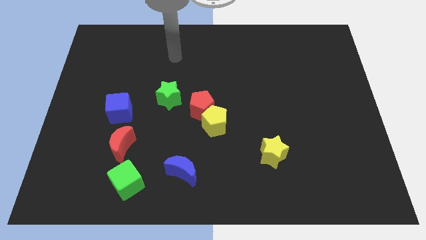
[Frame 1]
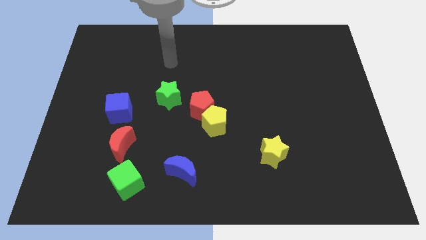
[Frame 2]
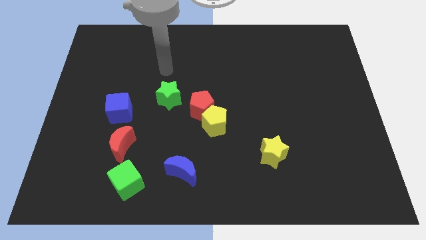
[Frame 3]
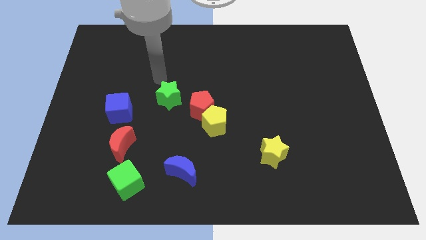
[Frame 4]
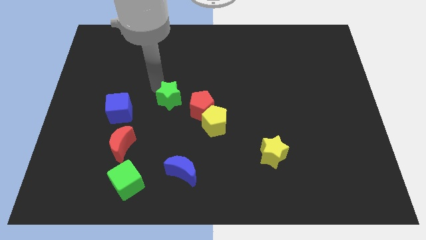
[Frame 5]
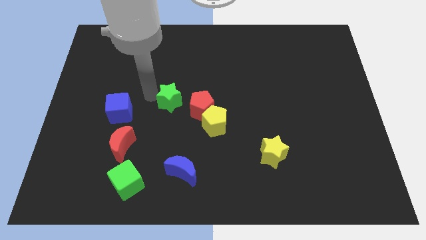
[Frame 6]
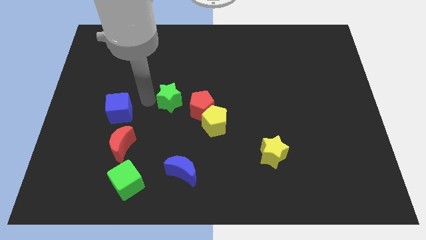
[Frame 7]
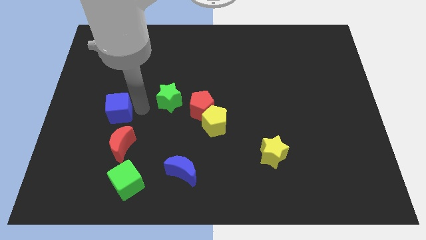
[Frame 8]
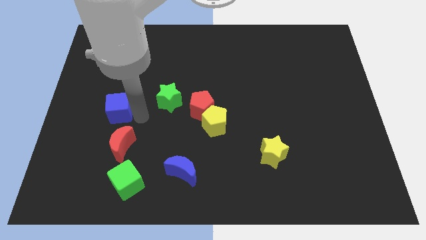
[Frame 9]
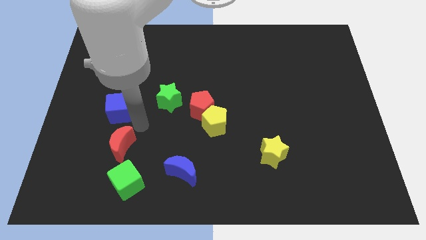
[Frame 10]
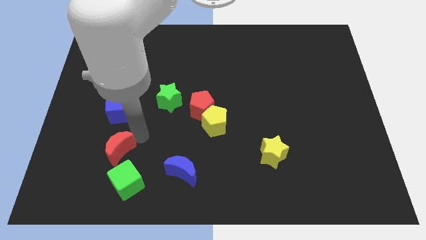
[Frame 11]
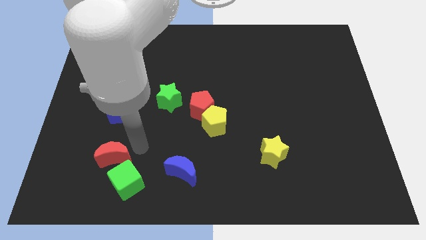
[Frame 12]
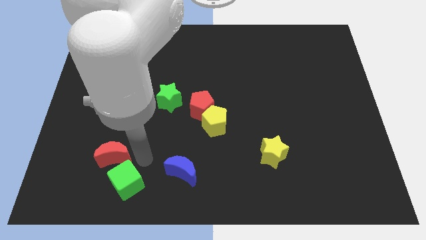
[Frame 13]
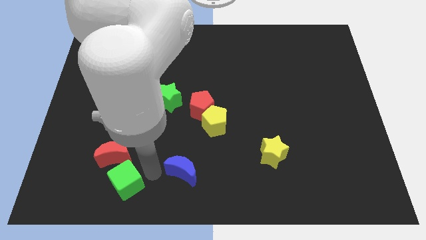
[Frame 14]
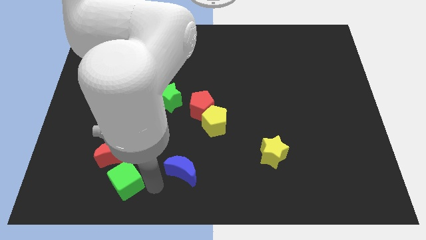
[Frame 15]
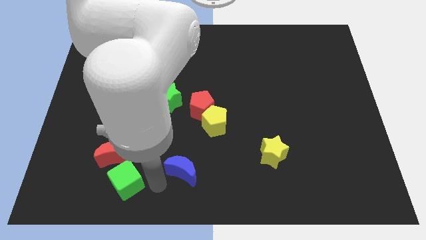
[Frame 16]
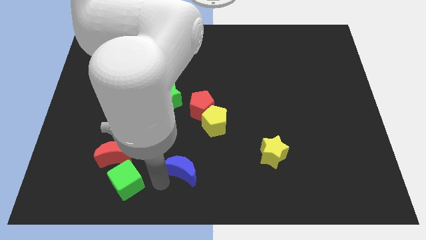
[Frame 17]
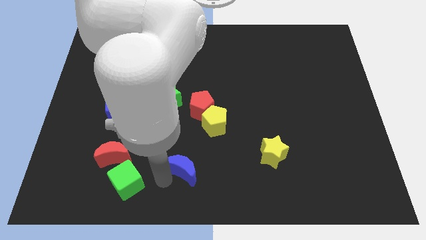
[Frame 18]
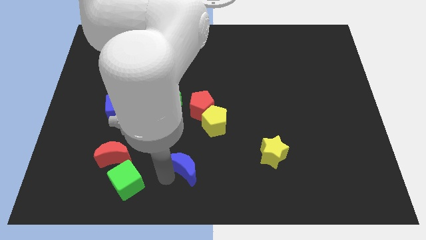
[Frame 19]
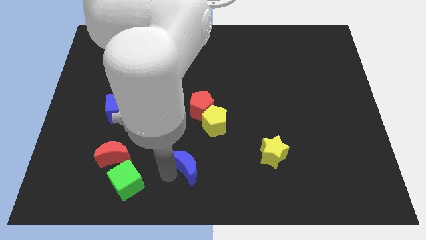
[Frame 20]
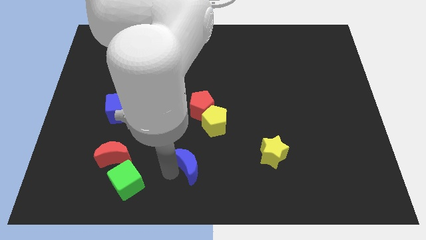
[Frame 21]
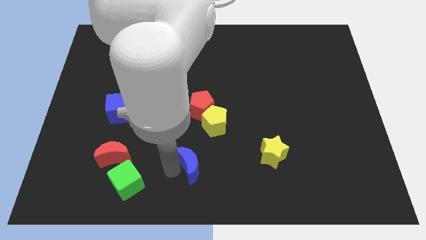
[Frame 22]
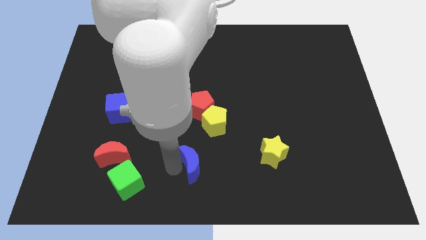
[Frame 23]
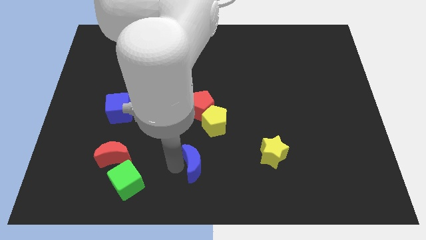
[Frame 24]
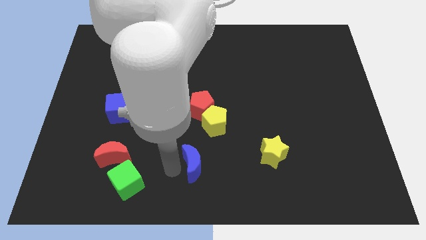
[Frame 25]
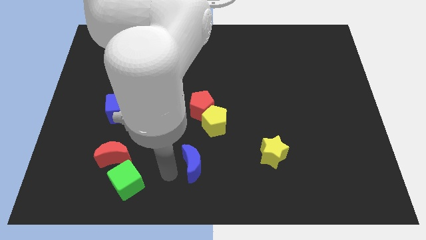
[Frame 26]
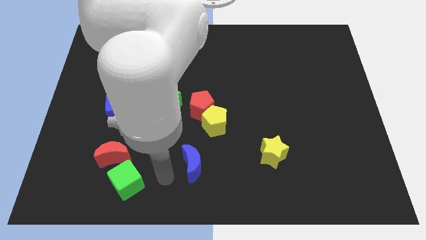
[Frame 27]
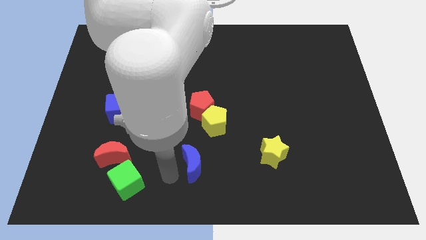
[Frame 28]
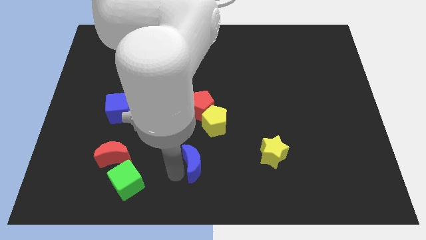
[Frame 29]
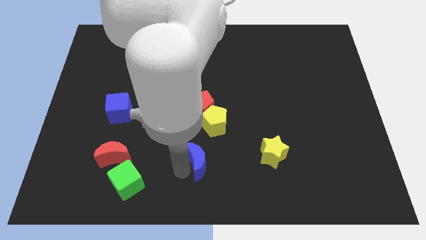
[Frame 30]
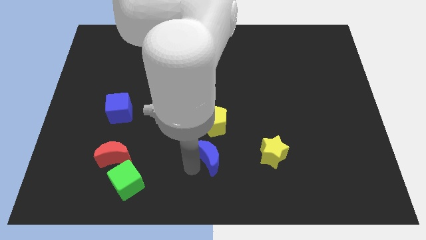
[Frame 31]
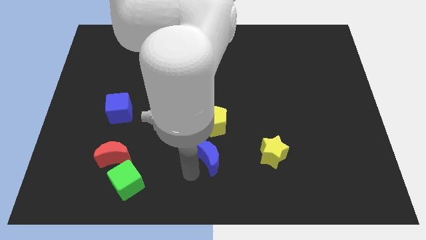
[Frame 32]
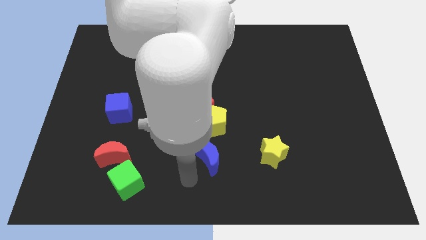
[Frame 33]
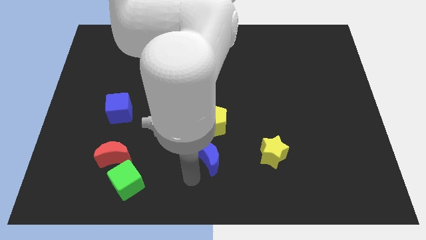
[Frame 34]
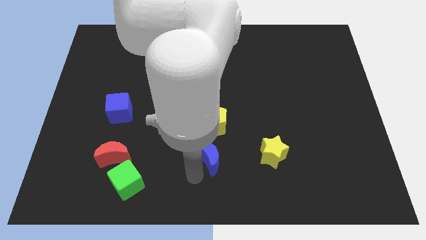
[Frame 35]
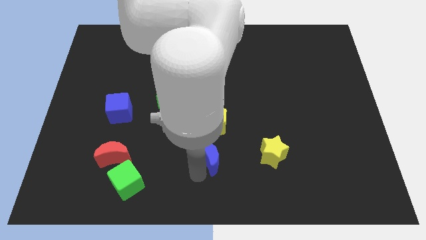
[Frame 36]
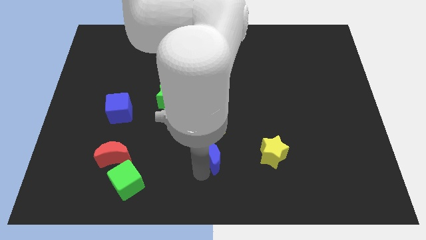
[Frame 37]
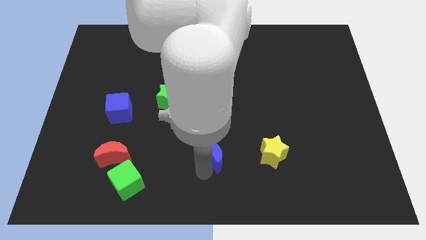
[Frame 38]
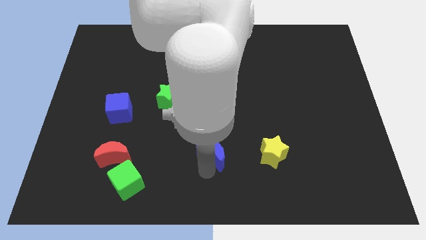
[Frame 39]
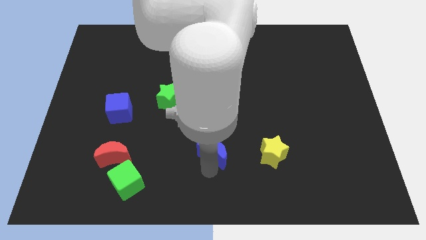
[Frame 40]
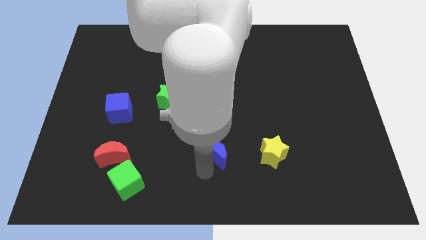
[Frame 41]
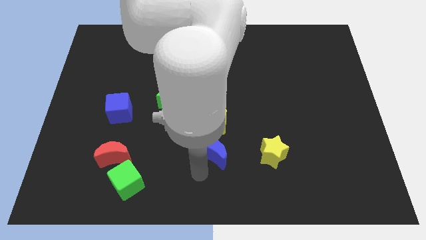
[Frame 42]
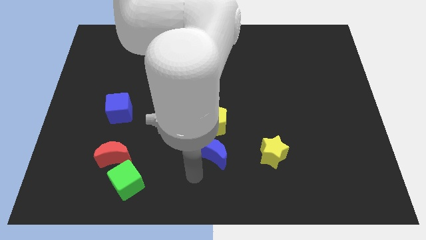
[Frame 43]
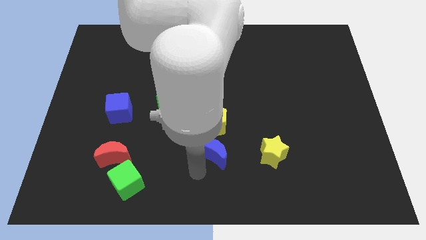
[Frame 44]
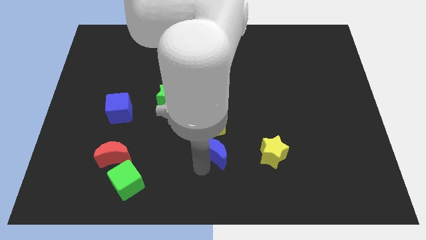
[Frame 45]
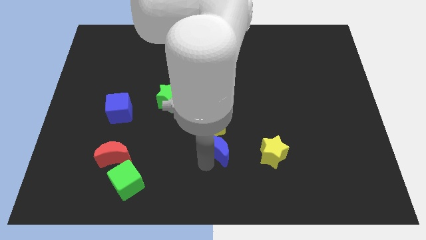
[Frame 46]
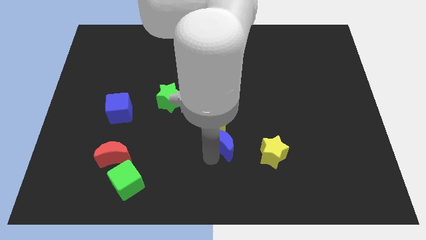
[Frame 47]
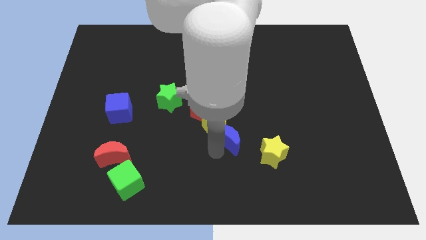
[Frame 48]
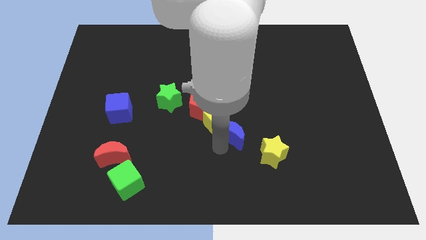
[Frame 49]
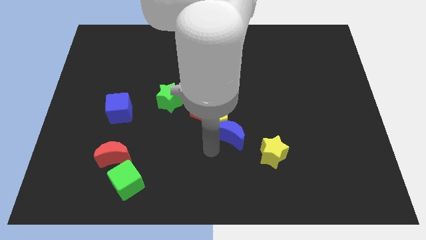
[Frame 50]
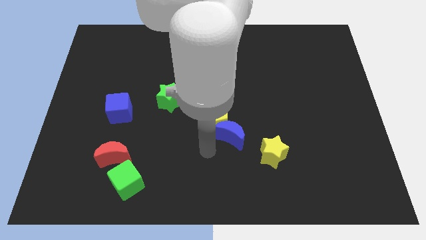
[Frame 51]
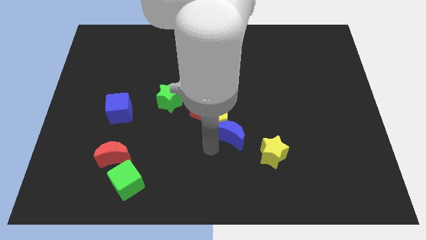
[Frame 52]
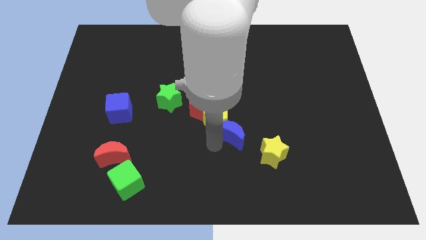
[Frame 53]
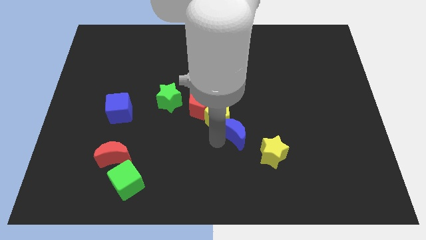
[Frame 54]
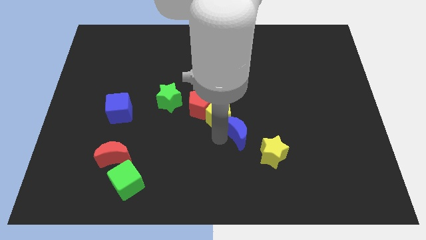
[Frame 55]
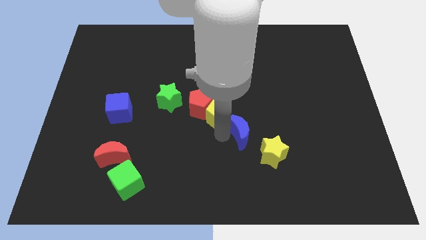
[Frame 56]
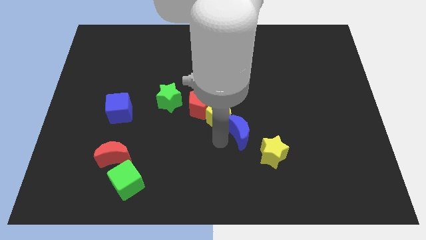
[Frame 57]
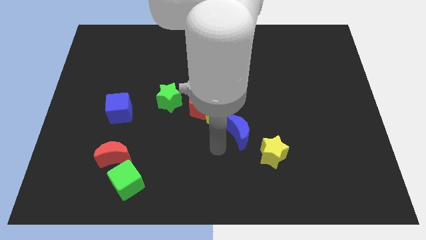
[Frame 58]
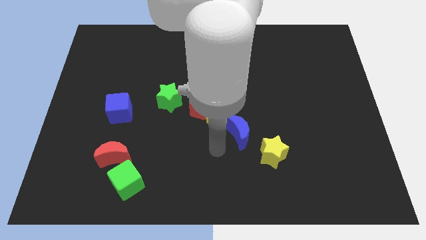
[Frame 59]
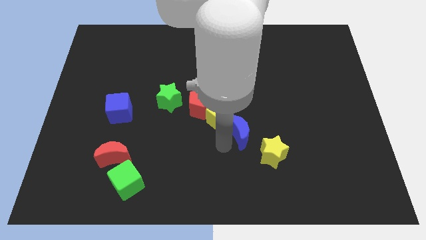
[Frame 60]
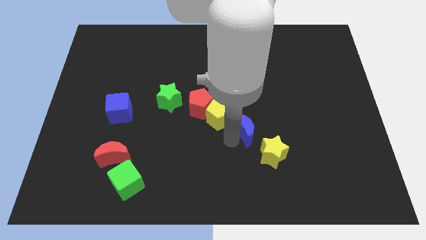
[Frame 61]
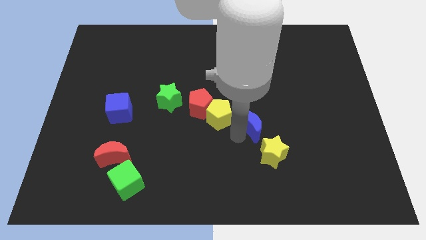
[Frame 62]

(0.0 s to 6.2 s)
push the blue moon to the top of the yellow star

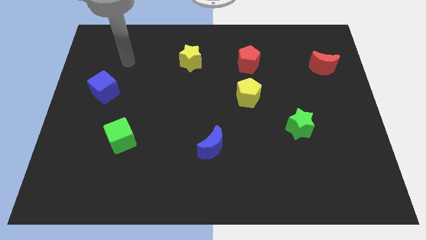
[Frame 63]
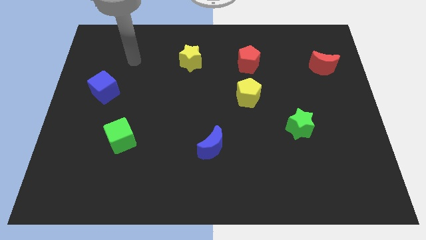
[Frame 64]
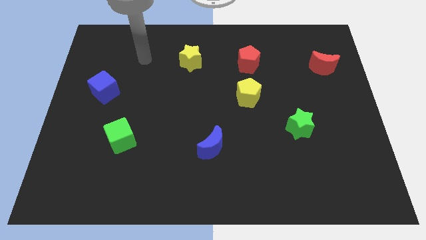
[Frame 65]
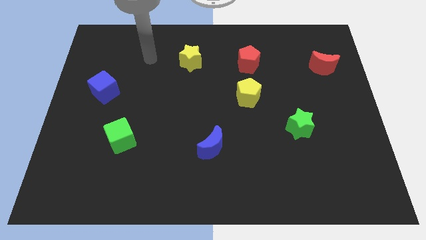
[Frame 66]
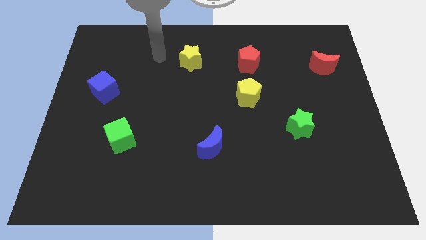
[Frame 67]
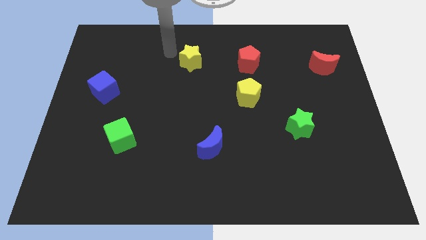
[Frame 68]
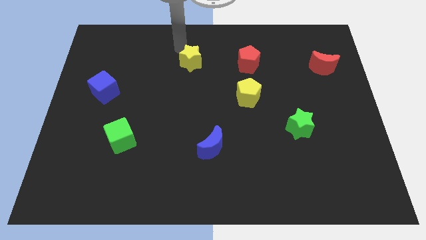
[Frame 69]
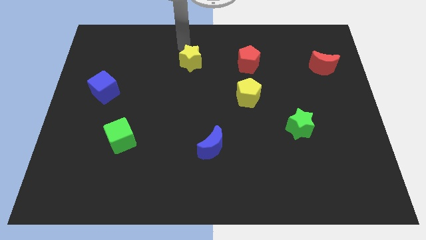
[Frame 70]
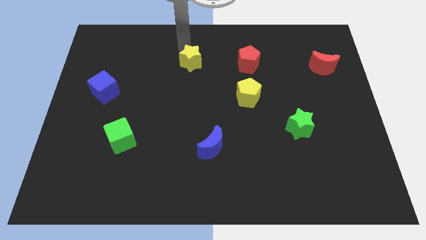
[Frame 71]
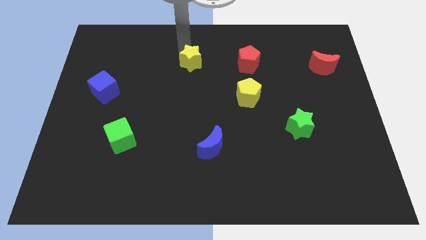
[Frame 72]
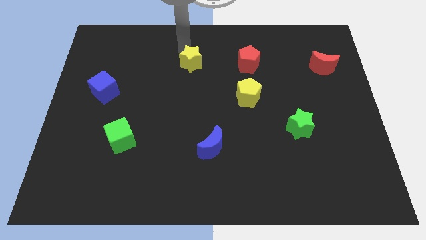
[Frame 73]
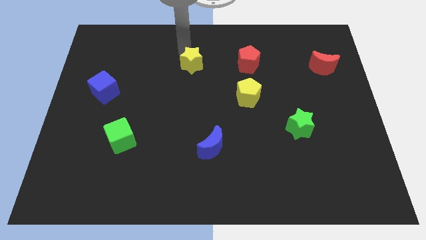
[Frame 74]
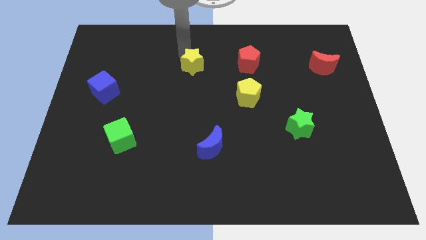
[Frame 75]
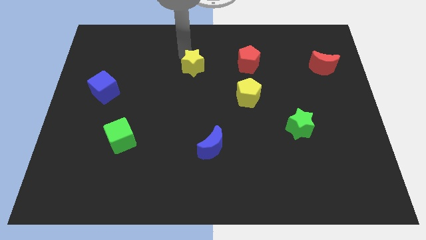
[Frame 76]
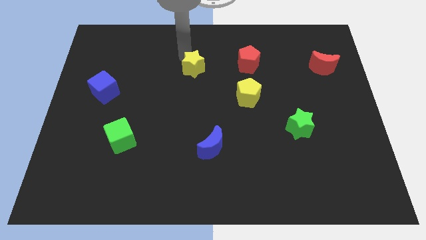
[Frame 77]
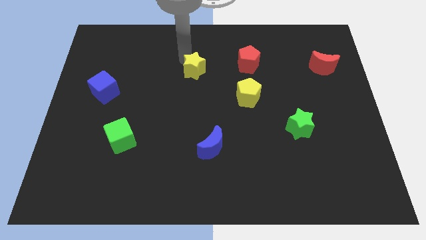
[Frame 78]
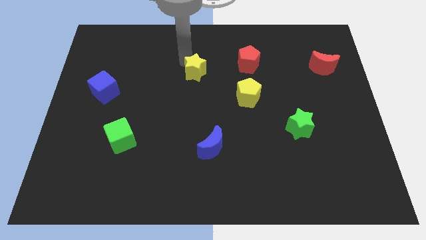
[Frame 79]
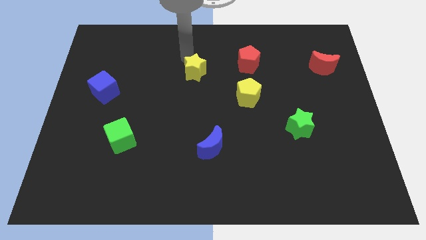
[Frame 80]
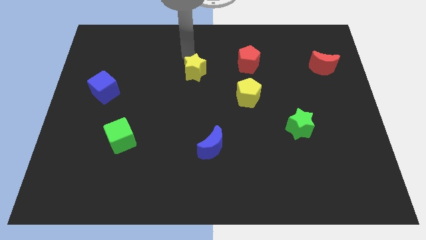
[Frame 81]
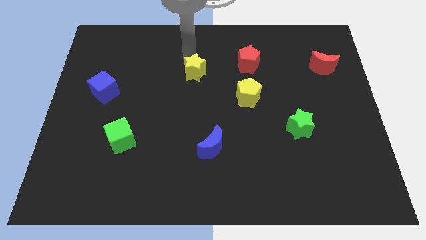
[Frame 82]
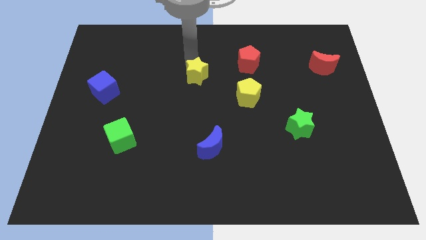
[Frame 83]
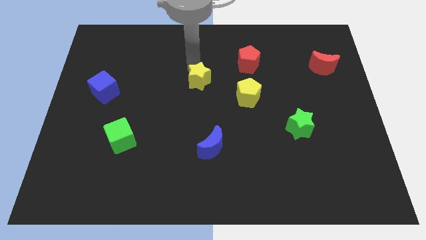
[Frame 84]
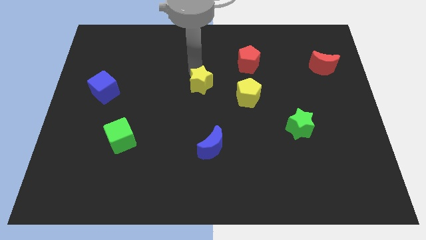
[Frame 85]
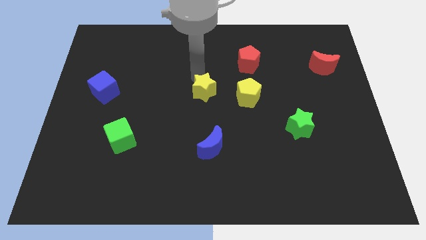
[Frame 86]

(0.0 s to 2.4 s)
push the yellow star above the blue moon
